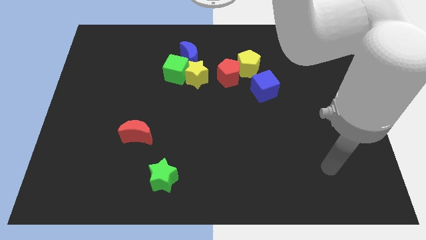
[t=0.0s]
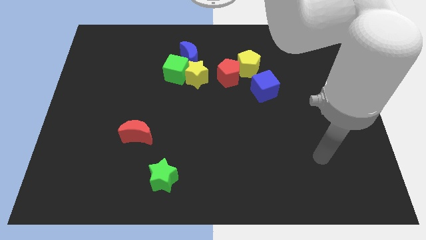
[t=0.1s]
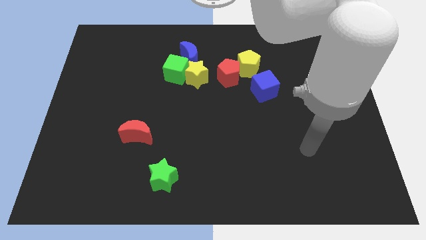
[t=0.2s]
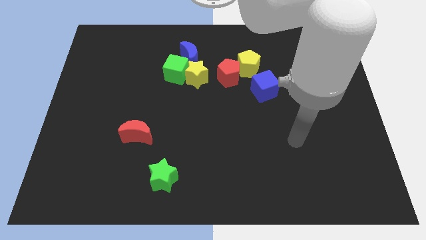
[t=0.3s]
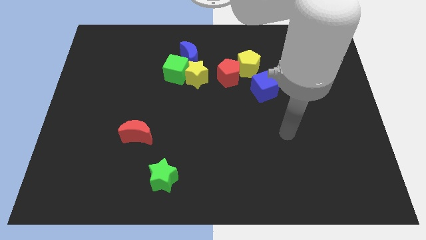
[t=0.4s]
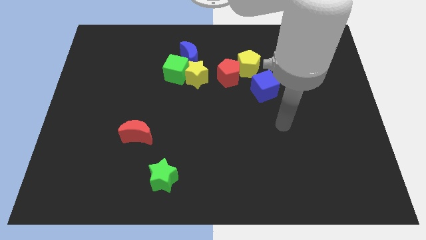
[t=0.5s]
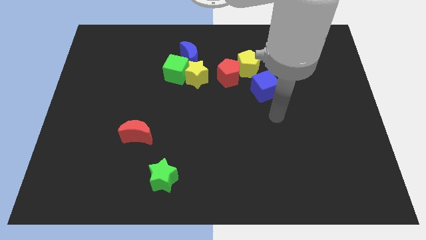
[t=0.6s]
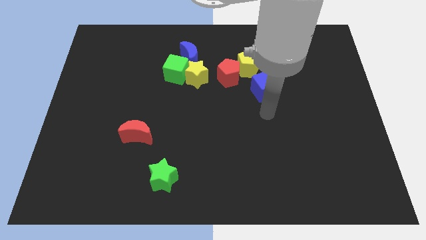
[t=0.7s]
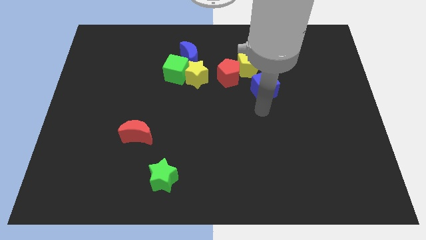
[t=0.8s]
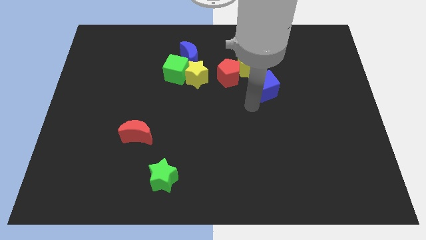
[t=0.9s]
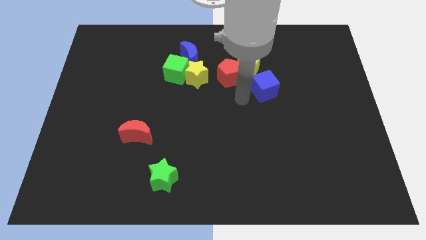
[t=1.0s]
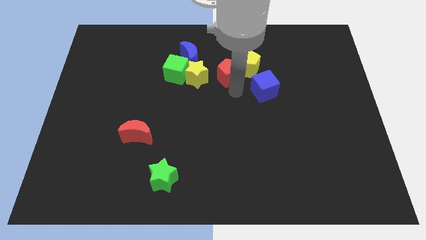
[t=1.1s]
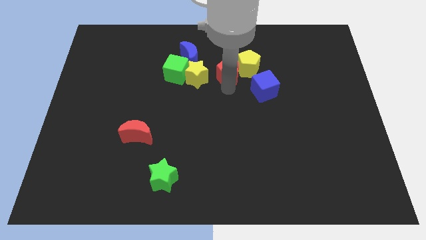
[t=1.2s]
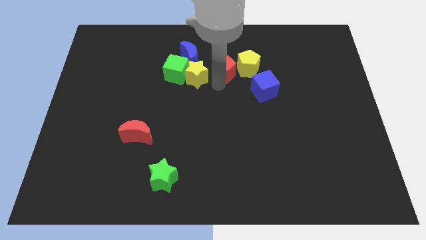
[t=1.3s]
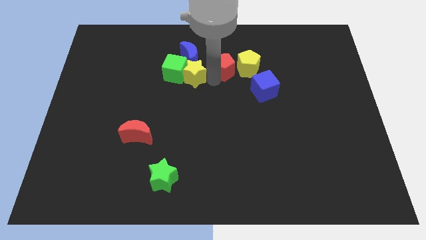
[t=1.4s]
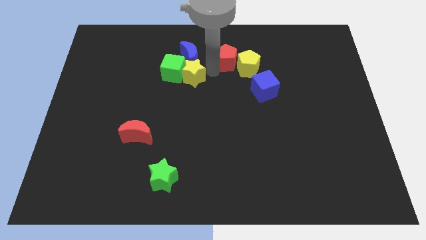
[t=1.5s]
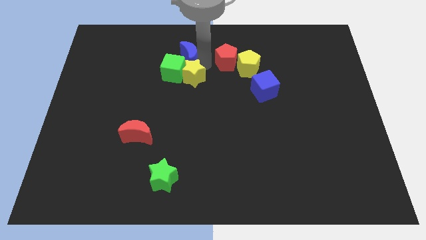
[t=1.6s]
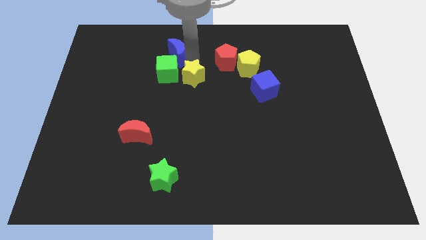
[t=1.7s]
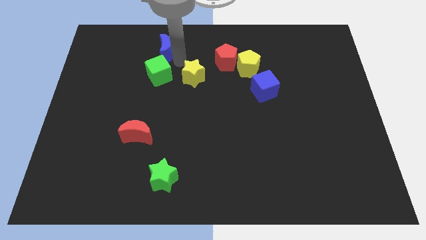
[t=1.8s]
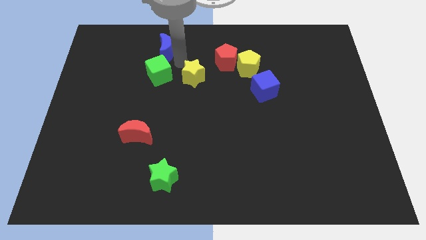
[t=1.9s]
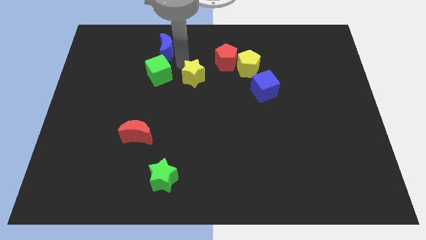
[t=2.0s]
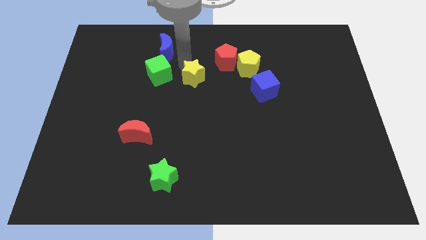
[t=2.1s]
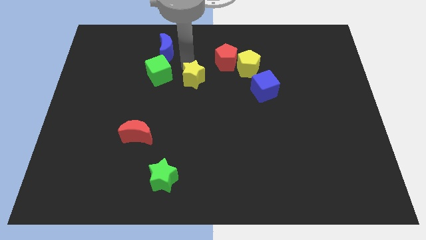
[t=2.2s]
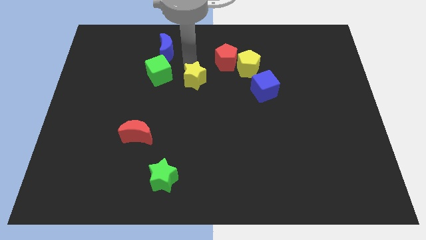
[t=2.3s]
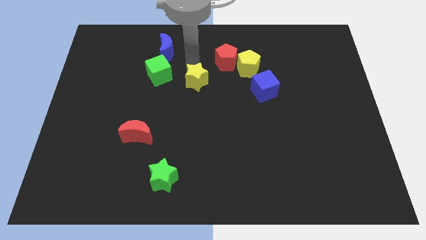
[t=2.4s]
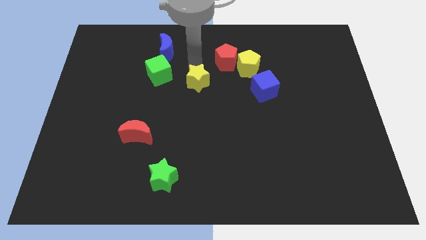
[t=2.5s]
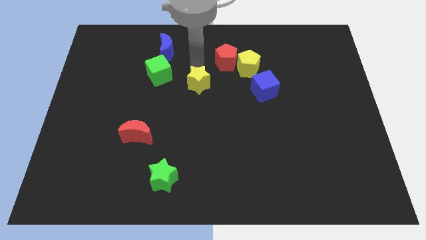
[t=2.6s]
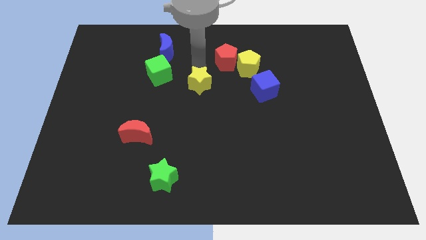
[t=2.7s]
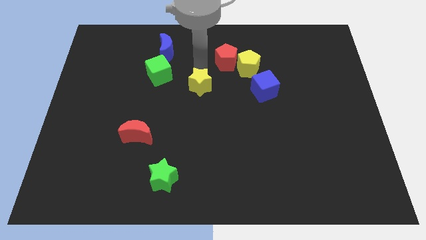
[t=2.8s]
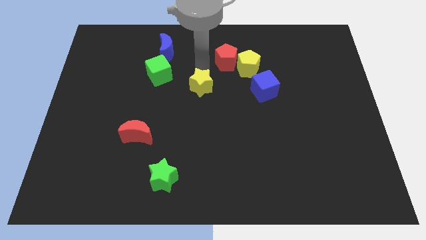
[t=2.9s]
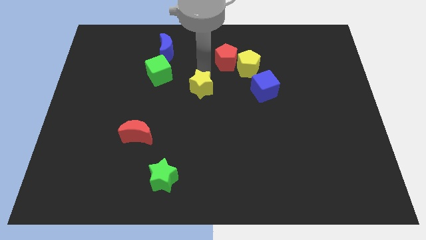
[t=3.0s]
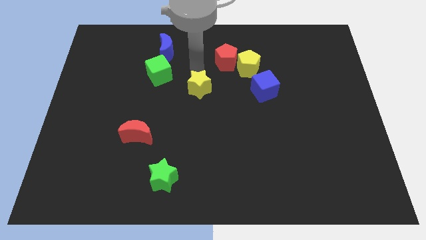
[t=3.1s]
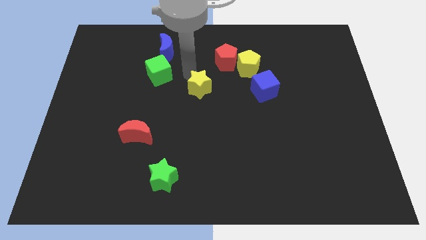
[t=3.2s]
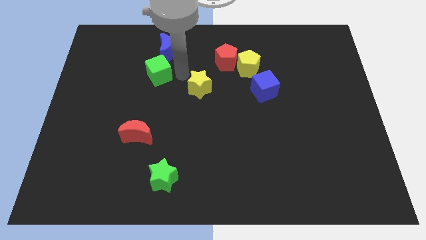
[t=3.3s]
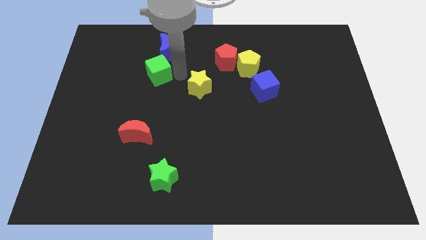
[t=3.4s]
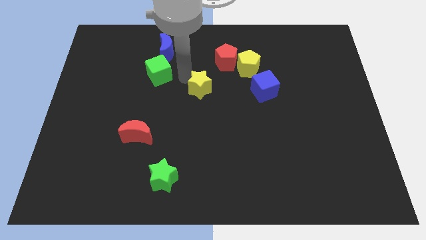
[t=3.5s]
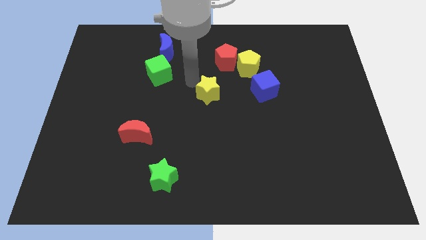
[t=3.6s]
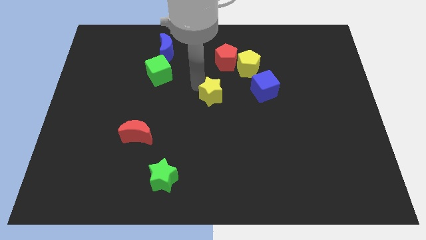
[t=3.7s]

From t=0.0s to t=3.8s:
slide the yellow star down and to the right diagonally slightly

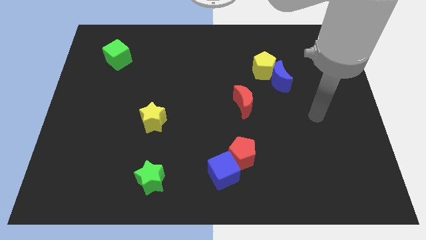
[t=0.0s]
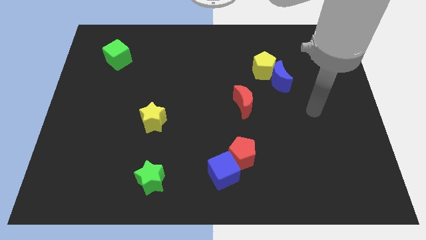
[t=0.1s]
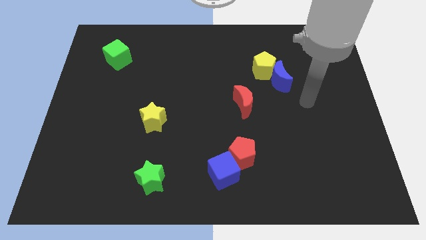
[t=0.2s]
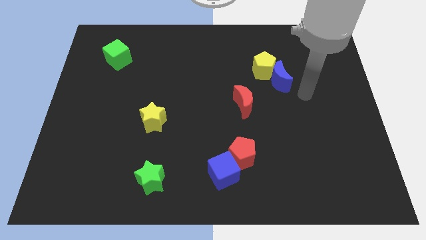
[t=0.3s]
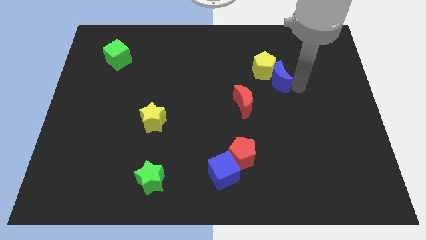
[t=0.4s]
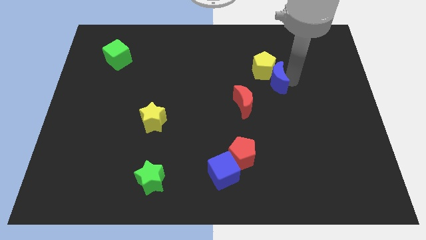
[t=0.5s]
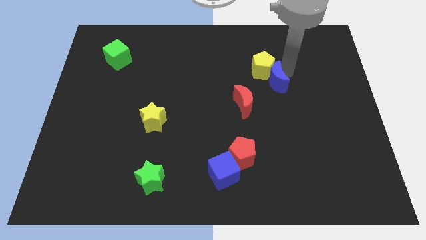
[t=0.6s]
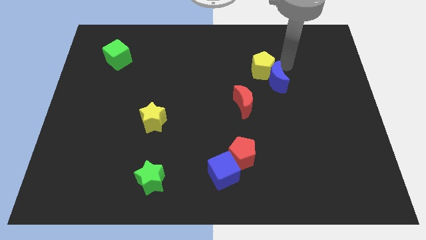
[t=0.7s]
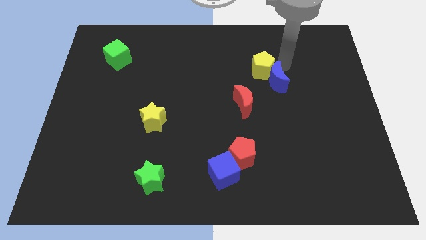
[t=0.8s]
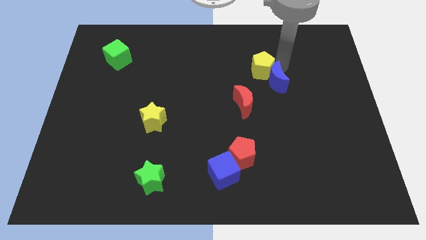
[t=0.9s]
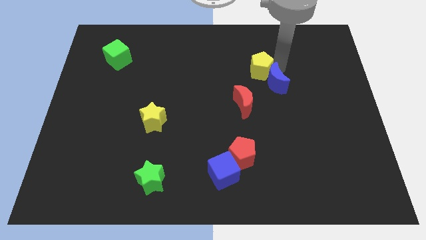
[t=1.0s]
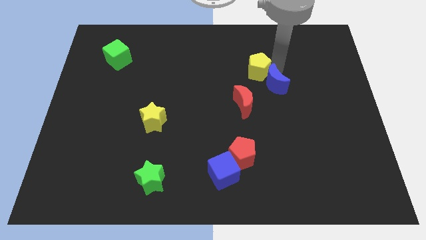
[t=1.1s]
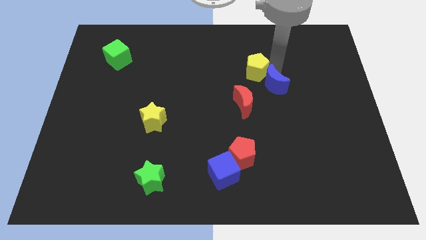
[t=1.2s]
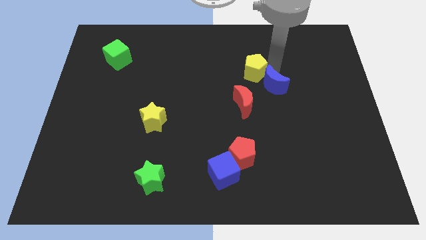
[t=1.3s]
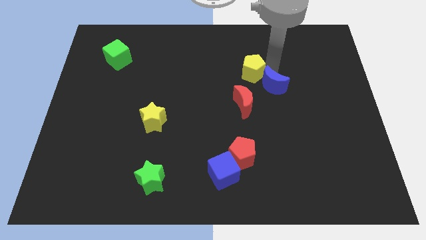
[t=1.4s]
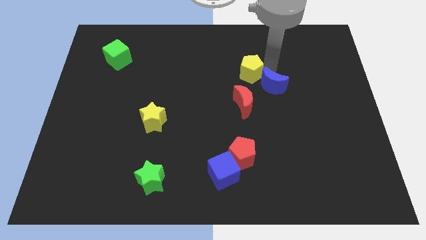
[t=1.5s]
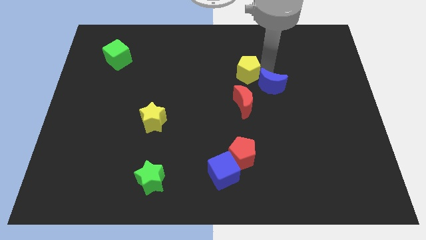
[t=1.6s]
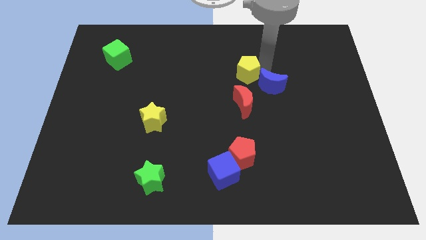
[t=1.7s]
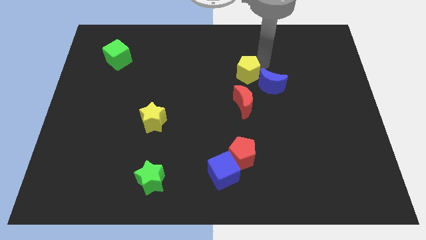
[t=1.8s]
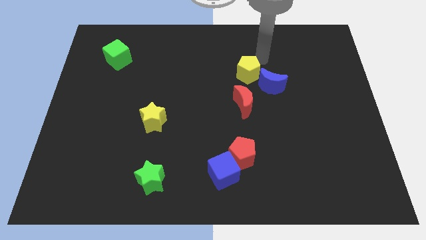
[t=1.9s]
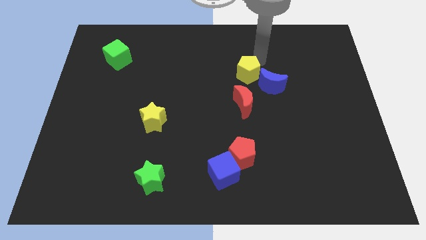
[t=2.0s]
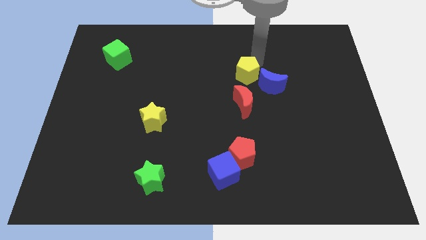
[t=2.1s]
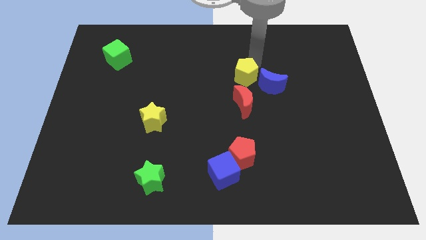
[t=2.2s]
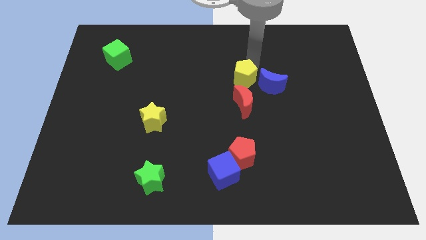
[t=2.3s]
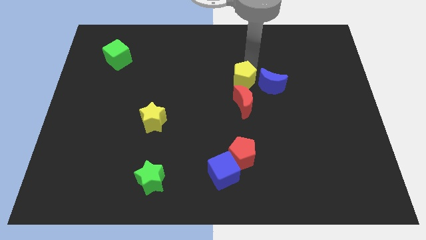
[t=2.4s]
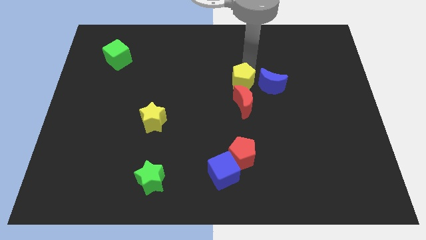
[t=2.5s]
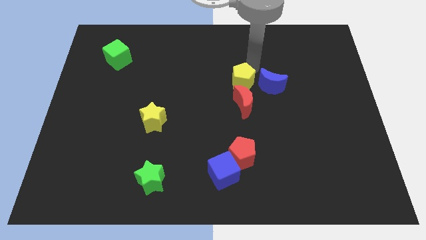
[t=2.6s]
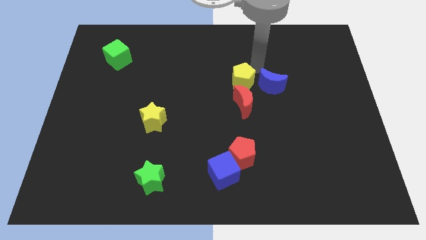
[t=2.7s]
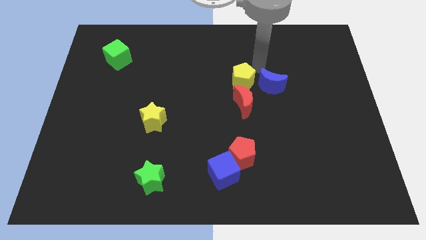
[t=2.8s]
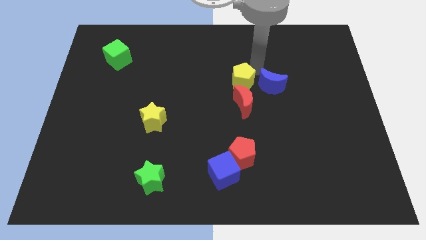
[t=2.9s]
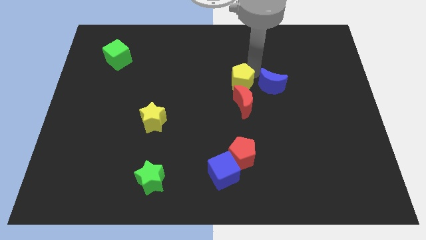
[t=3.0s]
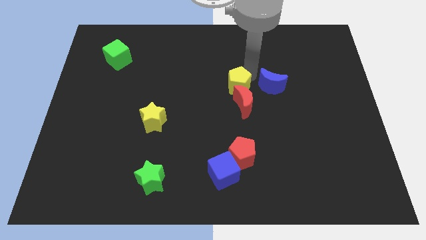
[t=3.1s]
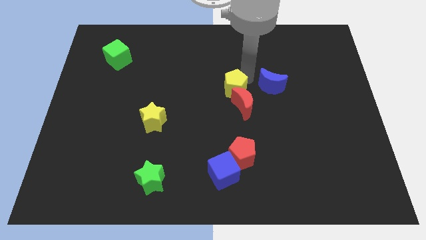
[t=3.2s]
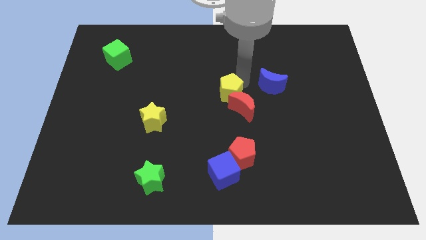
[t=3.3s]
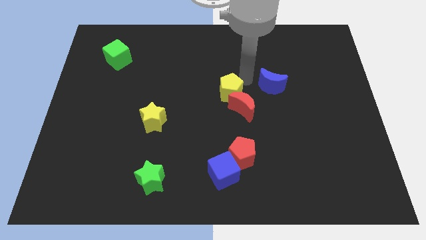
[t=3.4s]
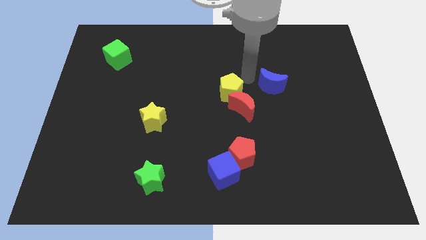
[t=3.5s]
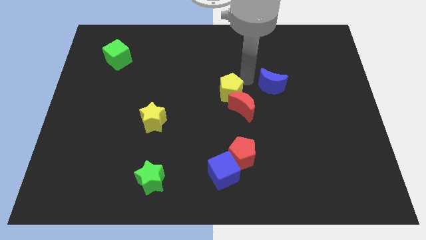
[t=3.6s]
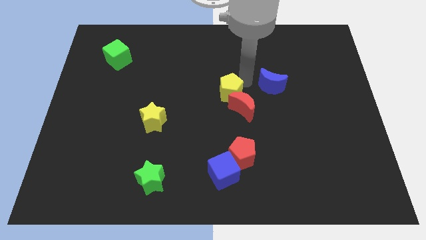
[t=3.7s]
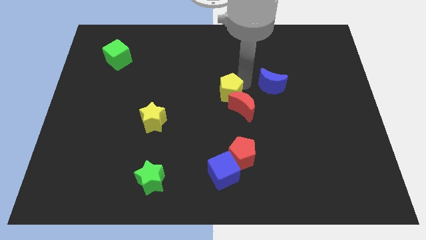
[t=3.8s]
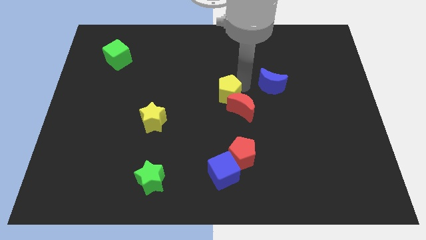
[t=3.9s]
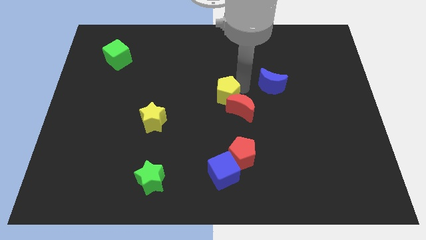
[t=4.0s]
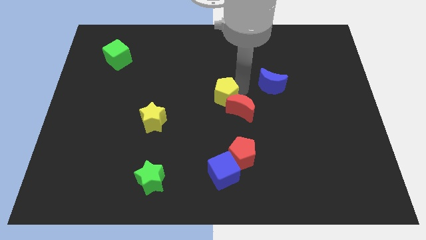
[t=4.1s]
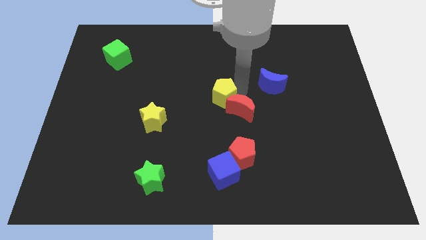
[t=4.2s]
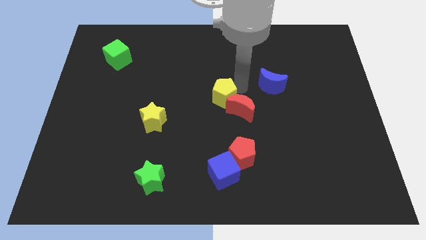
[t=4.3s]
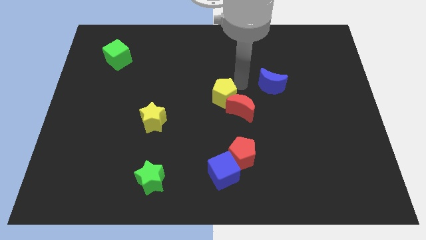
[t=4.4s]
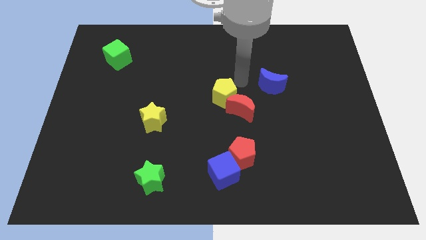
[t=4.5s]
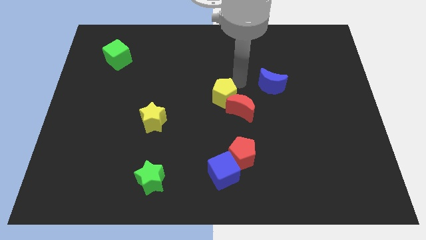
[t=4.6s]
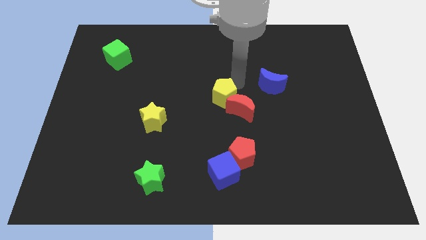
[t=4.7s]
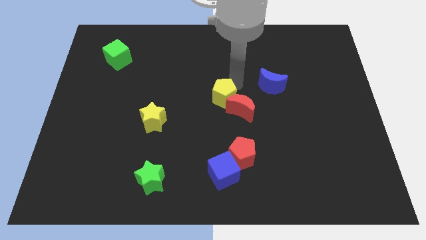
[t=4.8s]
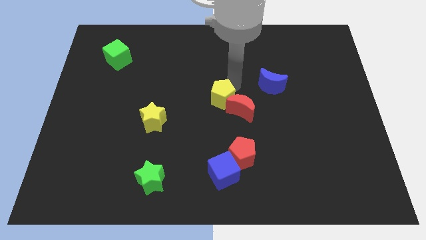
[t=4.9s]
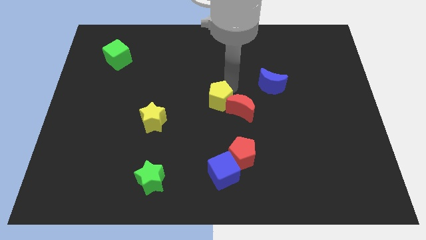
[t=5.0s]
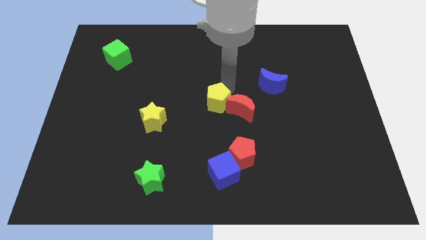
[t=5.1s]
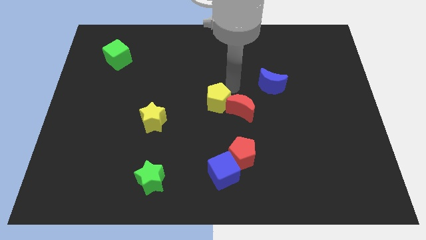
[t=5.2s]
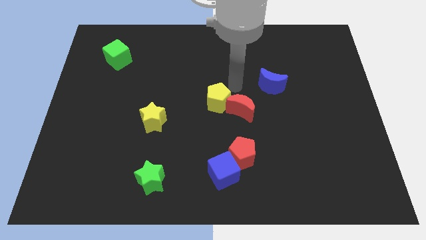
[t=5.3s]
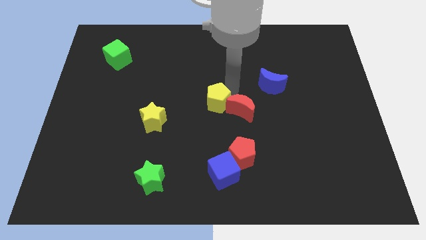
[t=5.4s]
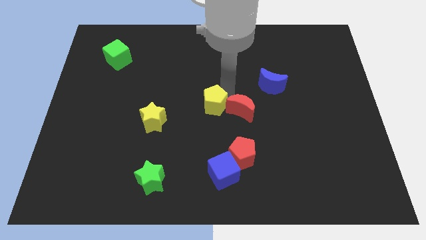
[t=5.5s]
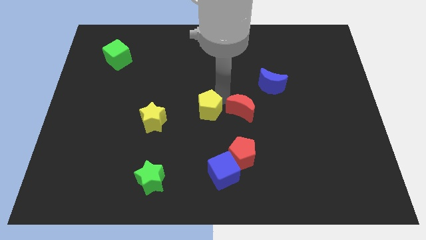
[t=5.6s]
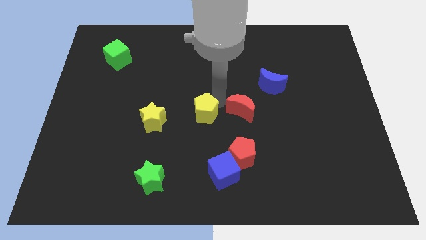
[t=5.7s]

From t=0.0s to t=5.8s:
move the yellow pentagon down and to the left
